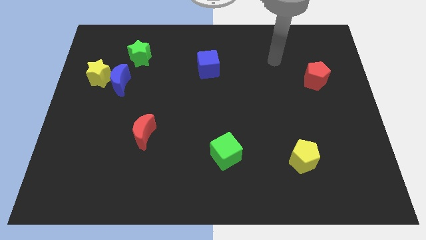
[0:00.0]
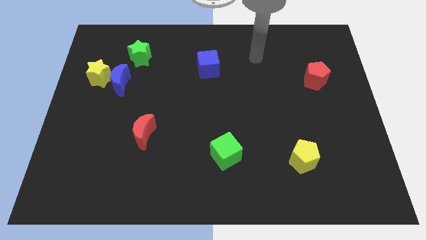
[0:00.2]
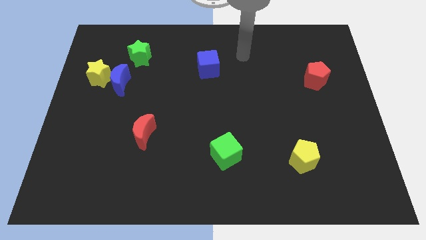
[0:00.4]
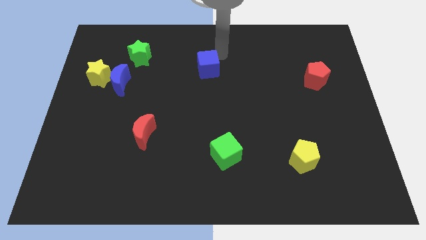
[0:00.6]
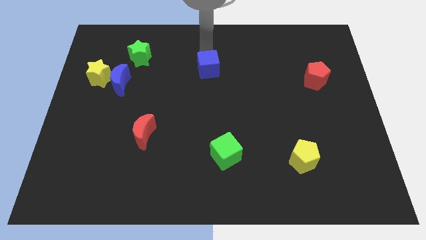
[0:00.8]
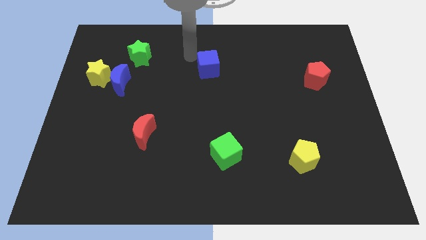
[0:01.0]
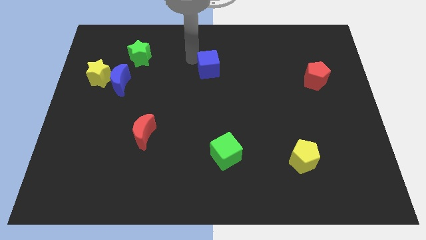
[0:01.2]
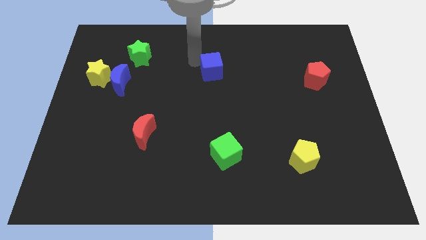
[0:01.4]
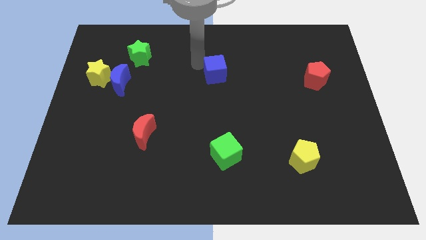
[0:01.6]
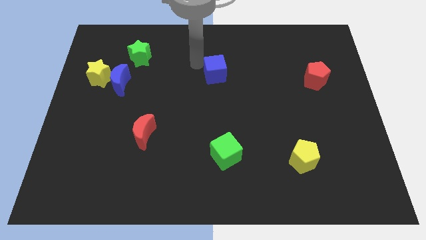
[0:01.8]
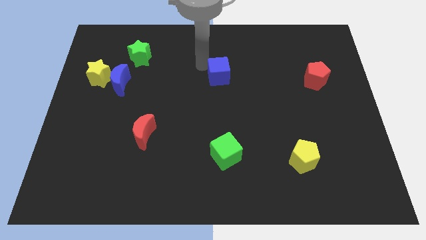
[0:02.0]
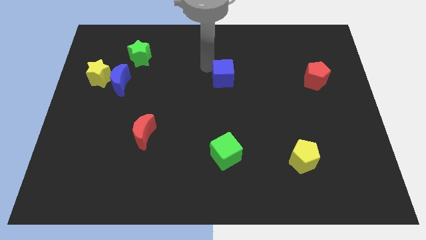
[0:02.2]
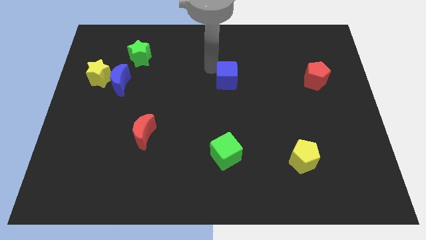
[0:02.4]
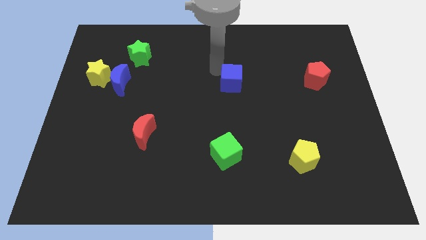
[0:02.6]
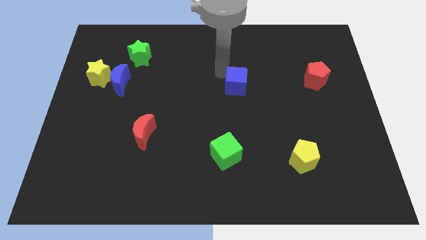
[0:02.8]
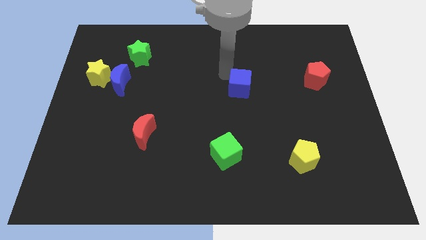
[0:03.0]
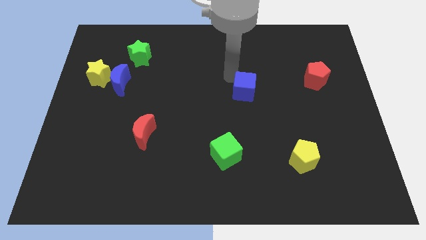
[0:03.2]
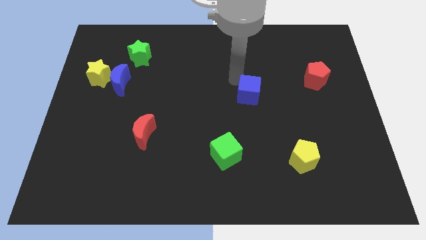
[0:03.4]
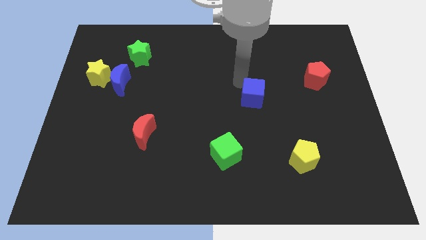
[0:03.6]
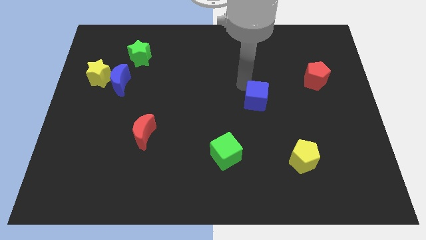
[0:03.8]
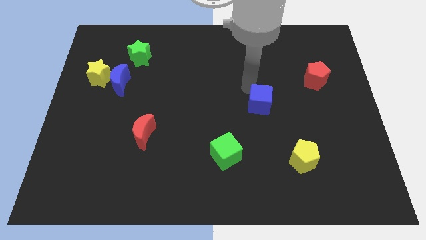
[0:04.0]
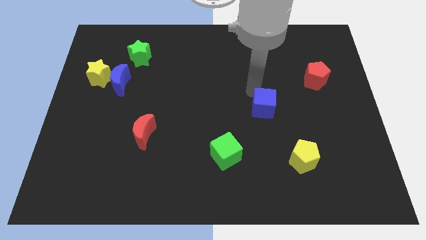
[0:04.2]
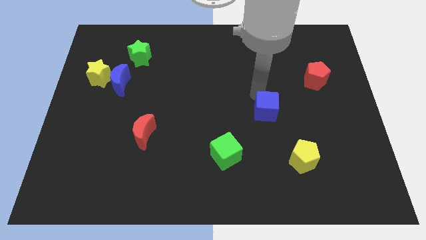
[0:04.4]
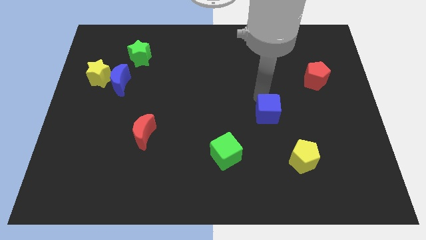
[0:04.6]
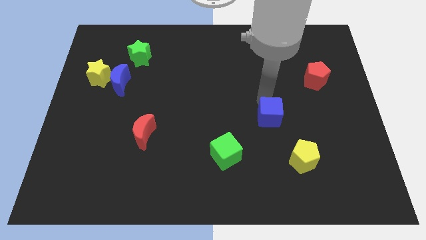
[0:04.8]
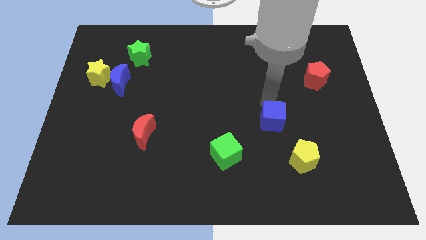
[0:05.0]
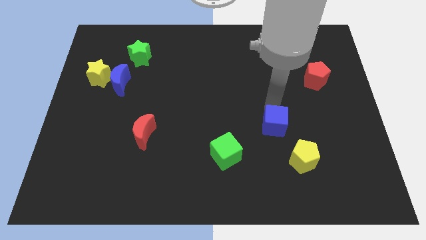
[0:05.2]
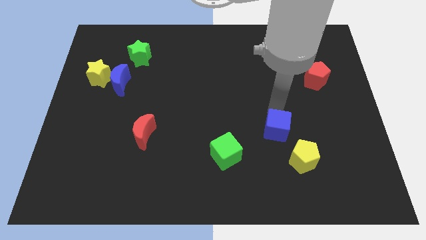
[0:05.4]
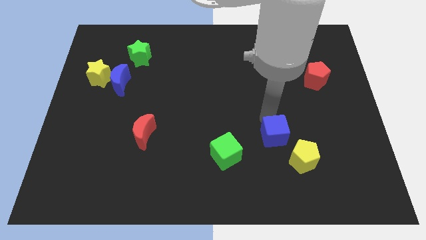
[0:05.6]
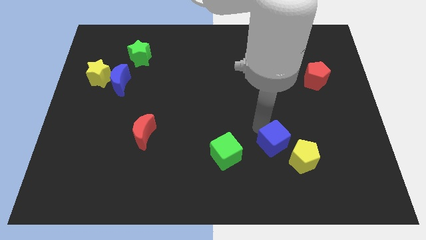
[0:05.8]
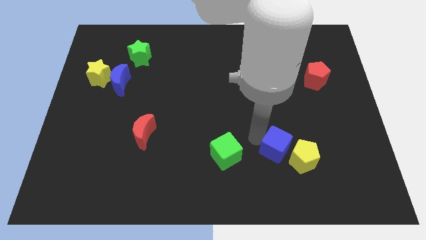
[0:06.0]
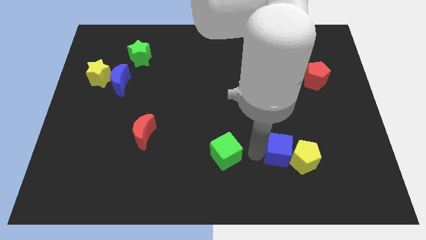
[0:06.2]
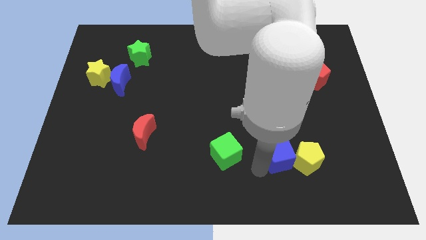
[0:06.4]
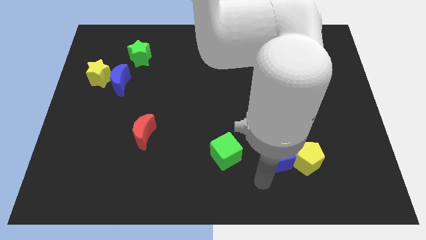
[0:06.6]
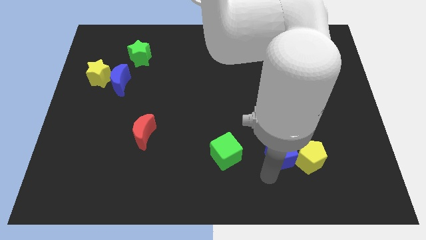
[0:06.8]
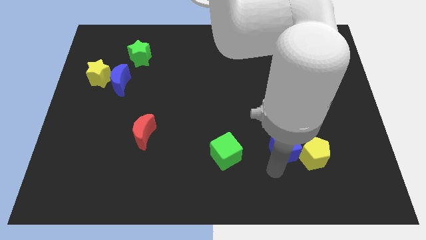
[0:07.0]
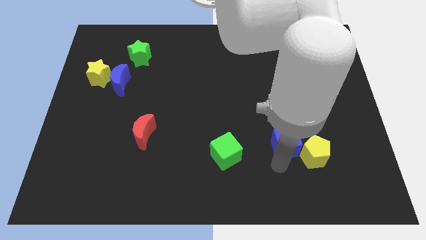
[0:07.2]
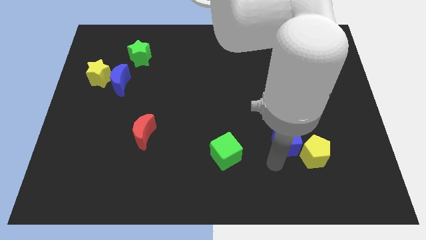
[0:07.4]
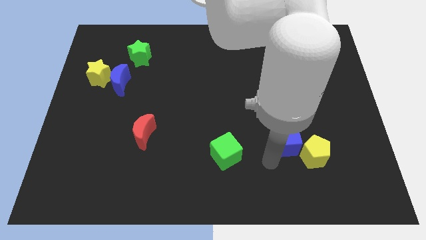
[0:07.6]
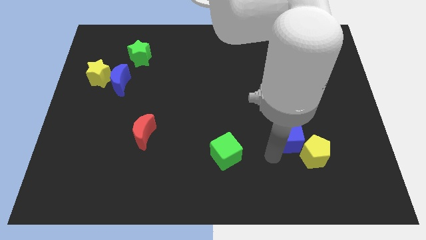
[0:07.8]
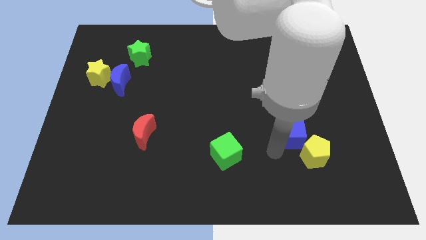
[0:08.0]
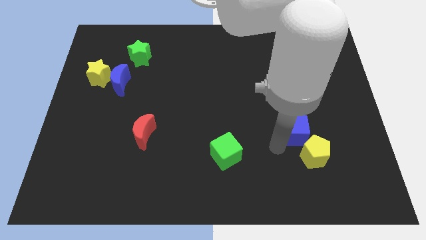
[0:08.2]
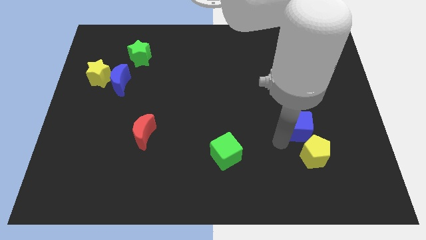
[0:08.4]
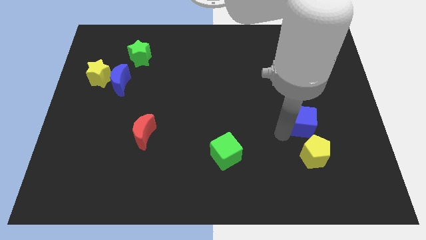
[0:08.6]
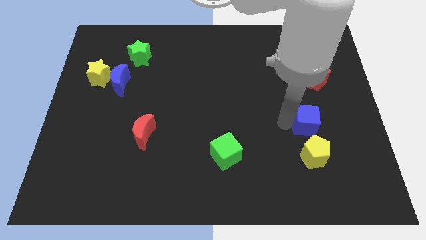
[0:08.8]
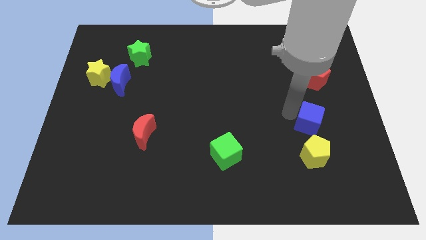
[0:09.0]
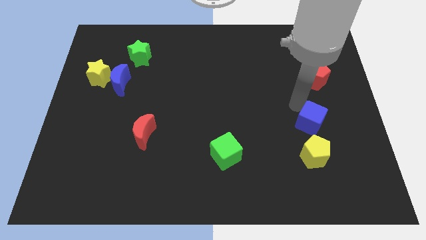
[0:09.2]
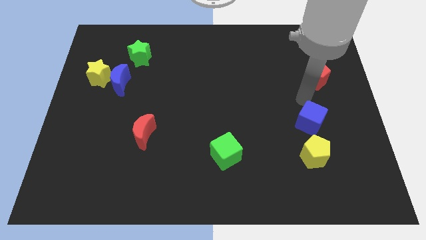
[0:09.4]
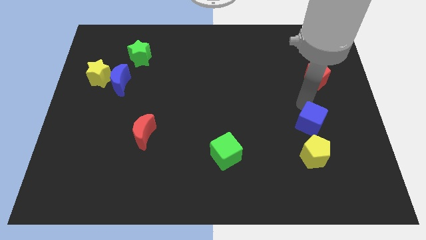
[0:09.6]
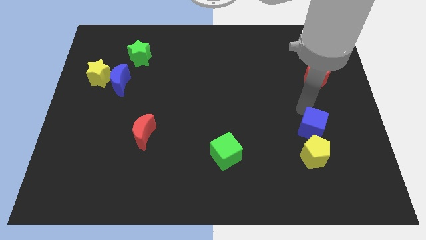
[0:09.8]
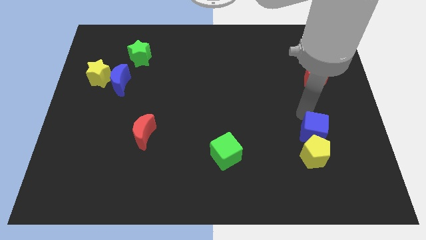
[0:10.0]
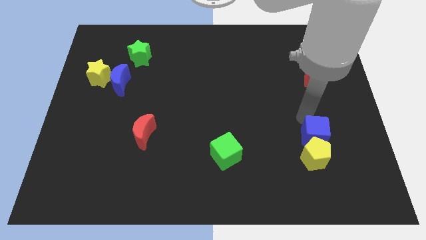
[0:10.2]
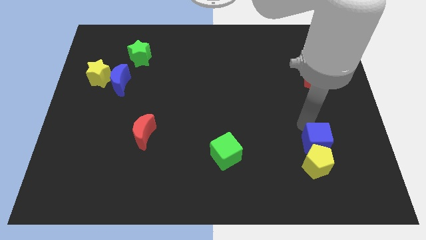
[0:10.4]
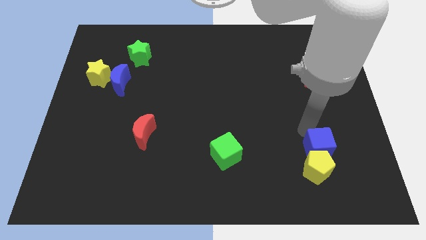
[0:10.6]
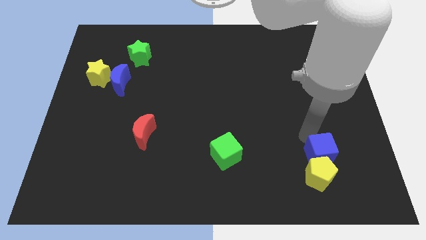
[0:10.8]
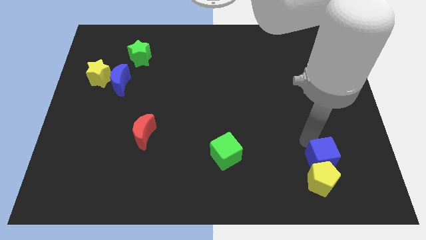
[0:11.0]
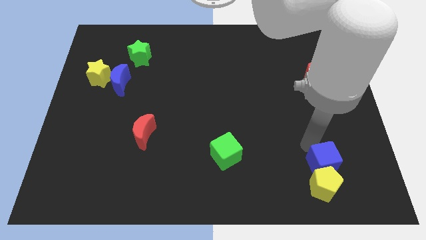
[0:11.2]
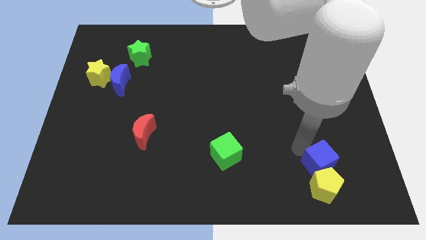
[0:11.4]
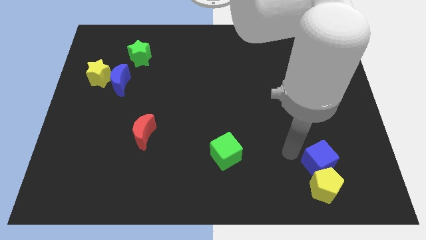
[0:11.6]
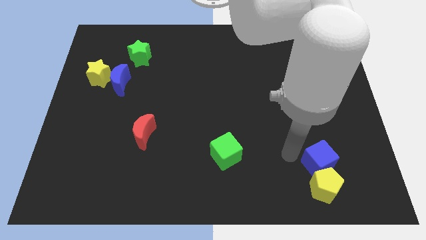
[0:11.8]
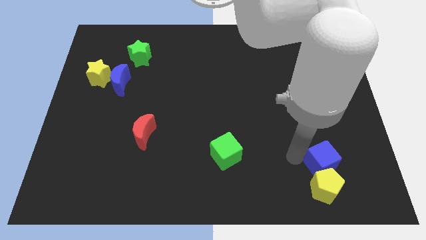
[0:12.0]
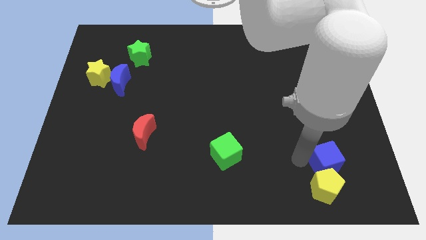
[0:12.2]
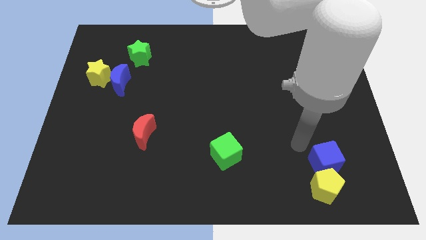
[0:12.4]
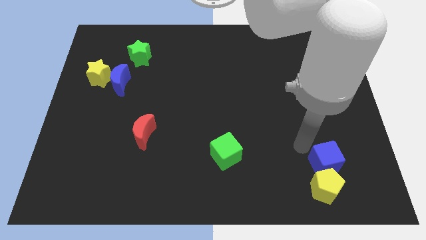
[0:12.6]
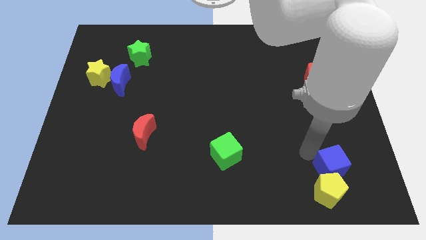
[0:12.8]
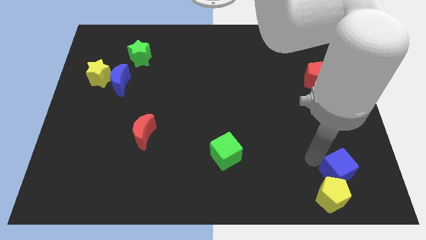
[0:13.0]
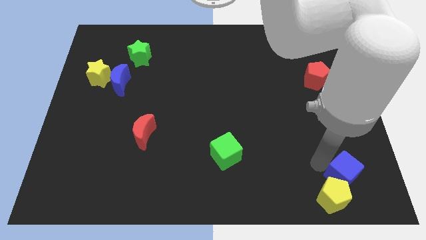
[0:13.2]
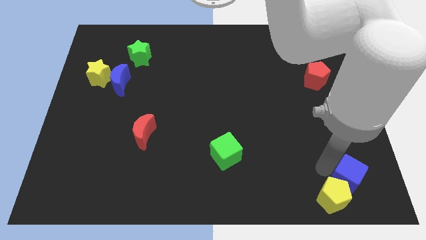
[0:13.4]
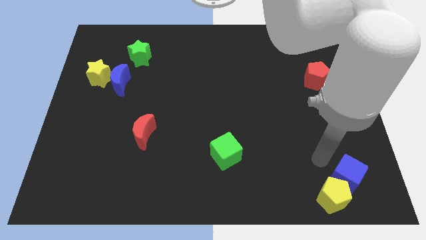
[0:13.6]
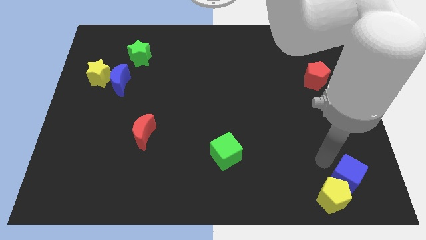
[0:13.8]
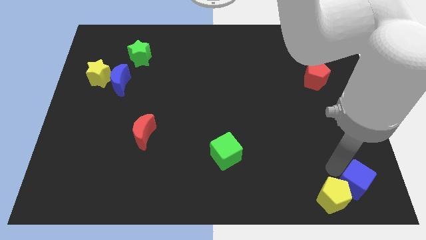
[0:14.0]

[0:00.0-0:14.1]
move the blue cube to the bottom right of the board
